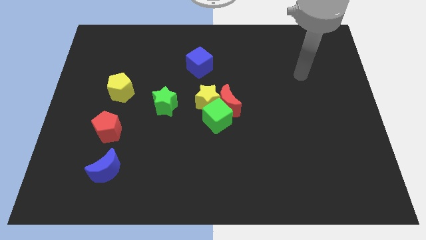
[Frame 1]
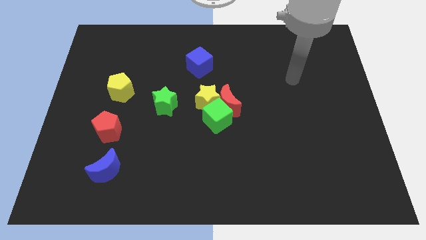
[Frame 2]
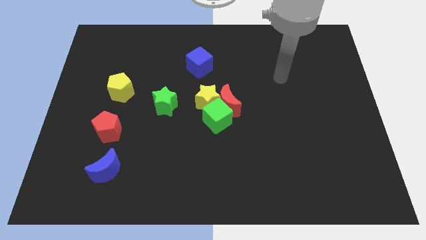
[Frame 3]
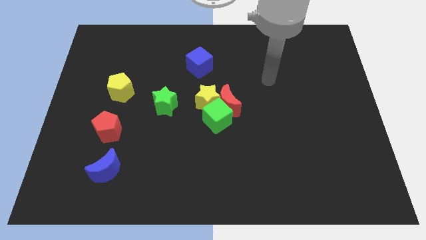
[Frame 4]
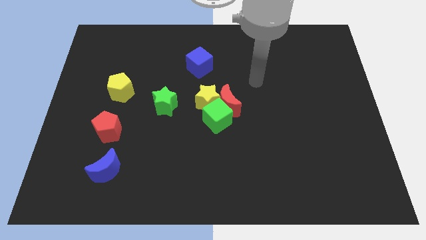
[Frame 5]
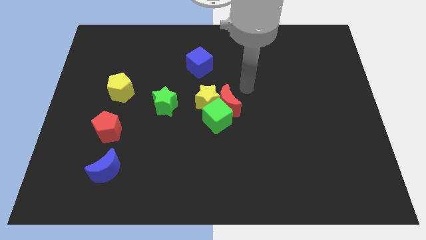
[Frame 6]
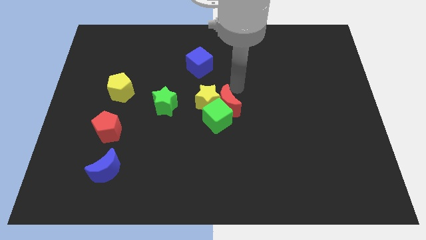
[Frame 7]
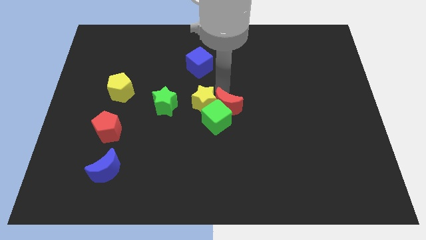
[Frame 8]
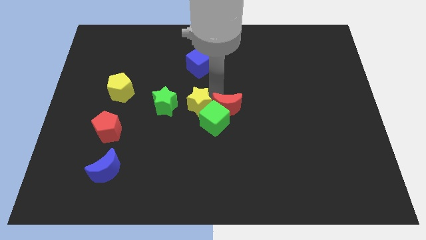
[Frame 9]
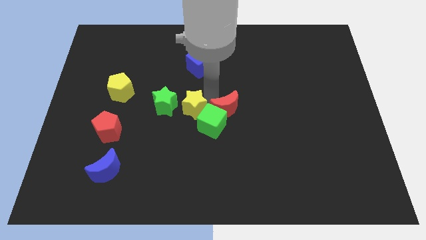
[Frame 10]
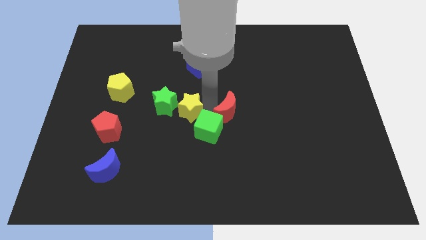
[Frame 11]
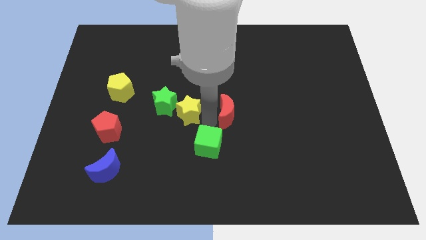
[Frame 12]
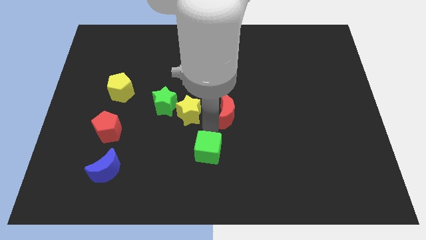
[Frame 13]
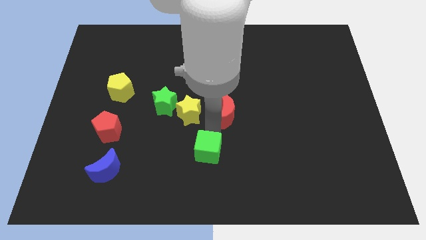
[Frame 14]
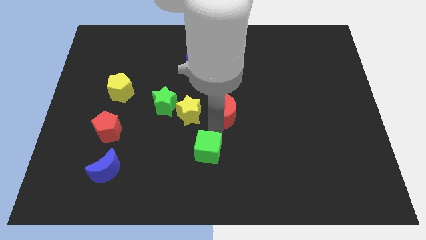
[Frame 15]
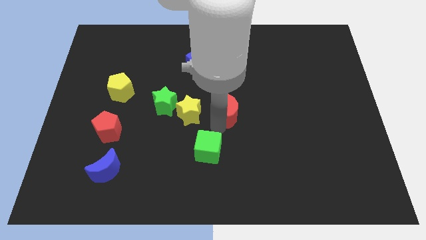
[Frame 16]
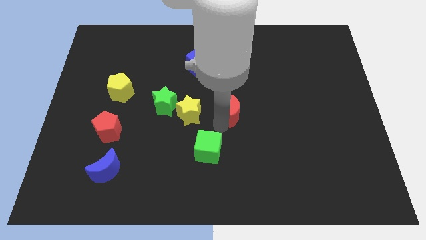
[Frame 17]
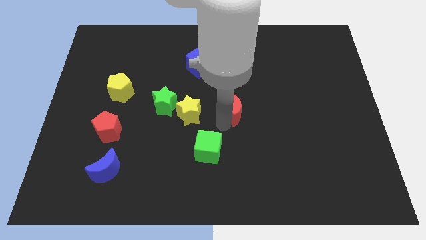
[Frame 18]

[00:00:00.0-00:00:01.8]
move the red moon away from the green cube and yellow star

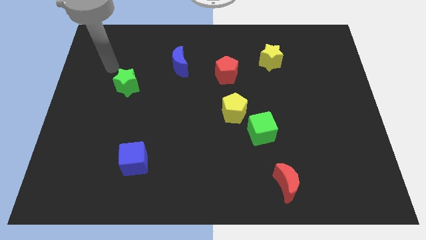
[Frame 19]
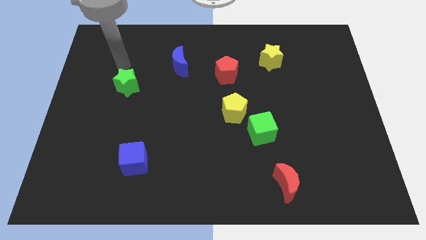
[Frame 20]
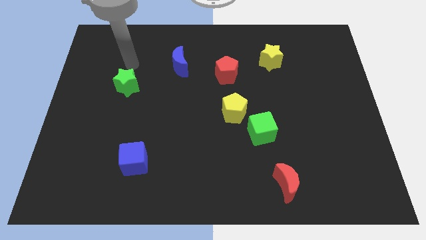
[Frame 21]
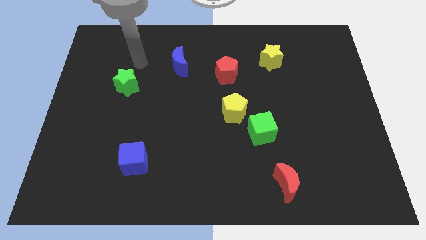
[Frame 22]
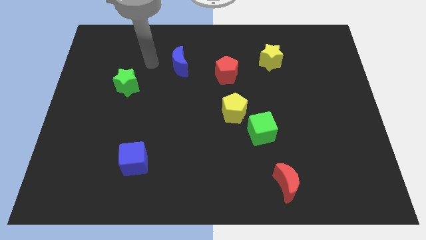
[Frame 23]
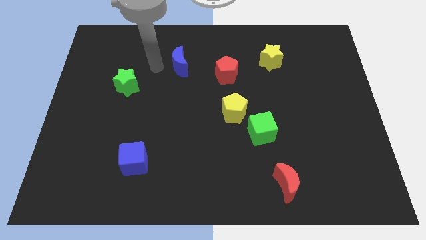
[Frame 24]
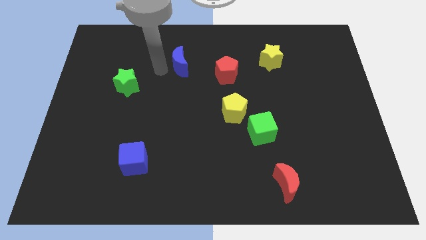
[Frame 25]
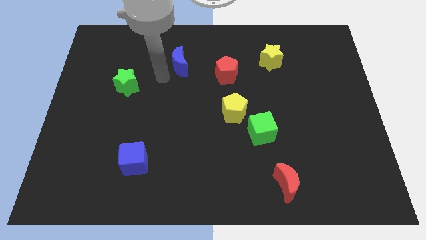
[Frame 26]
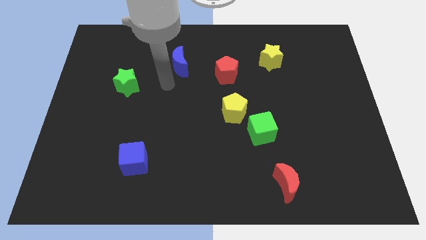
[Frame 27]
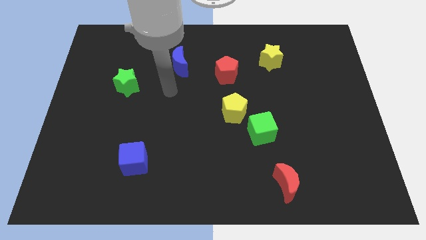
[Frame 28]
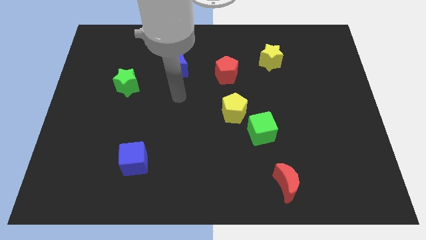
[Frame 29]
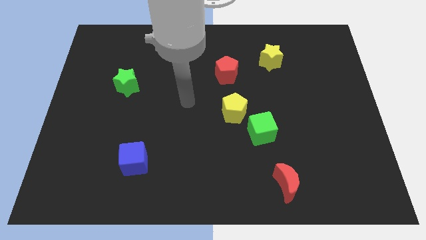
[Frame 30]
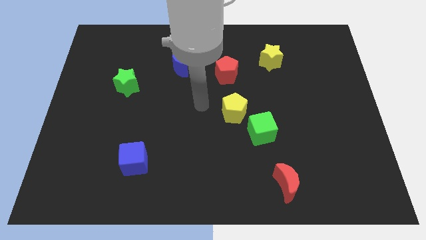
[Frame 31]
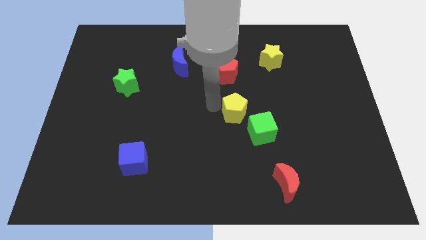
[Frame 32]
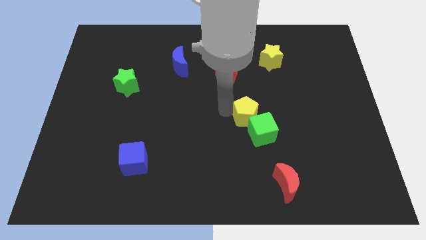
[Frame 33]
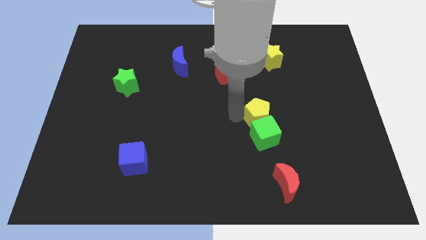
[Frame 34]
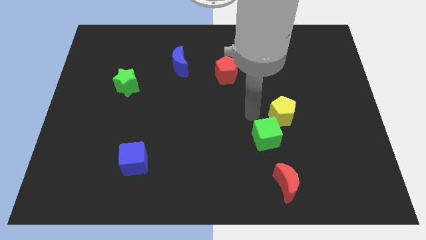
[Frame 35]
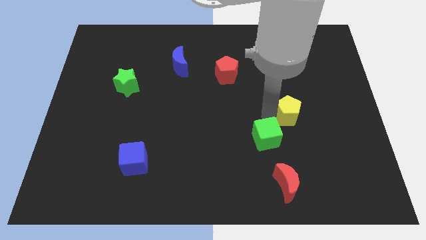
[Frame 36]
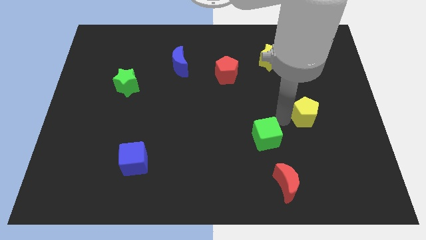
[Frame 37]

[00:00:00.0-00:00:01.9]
pull the green cube apart from the yellow pentagon

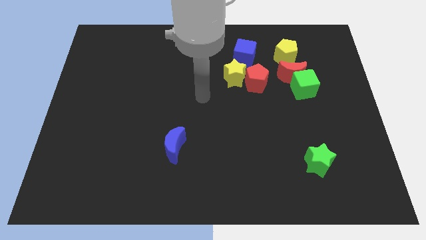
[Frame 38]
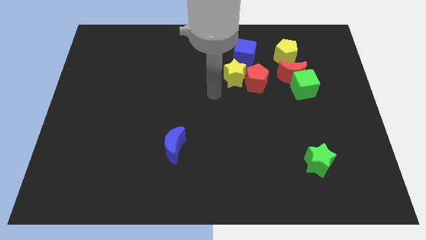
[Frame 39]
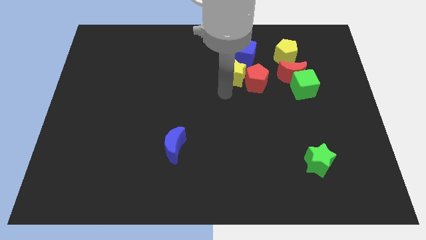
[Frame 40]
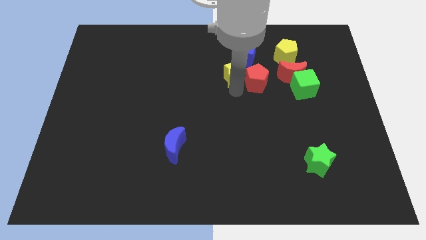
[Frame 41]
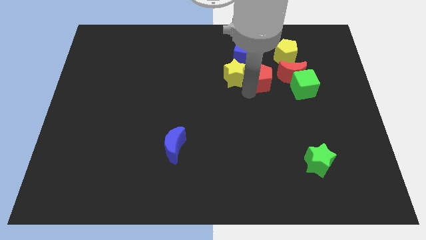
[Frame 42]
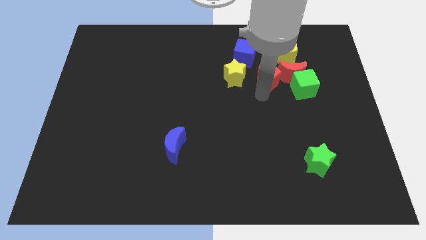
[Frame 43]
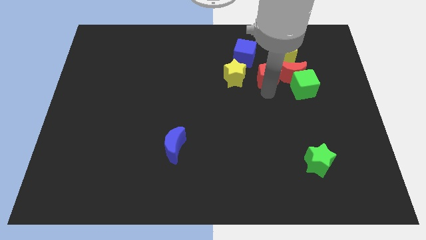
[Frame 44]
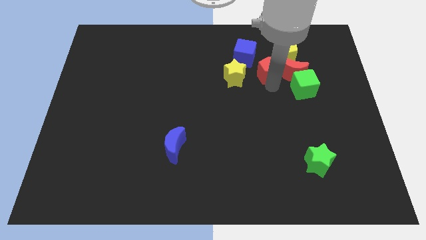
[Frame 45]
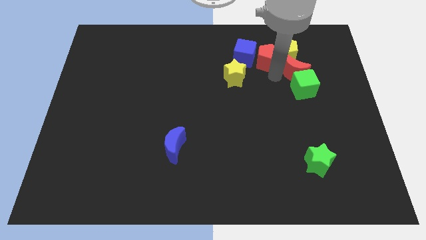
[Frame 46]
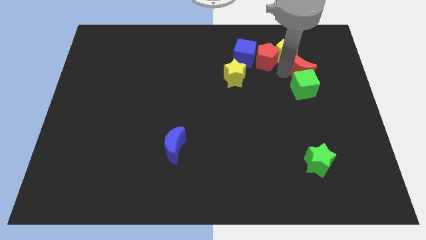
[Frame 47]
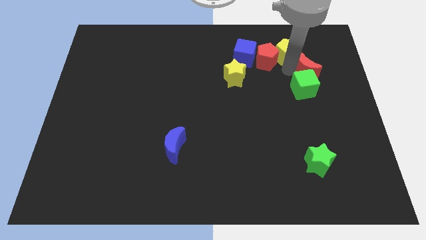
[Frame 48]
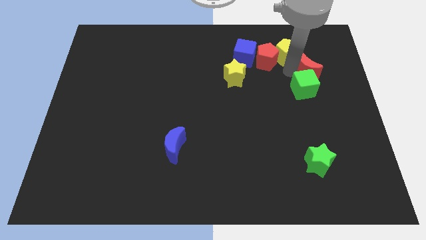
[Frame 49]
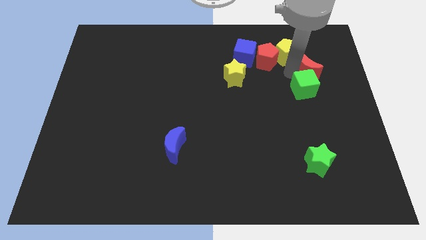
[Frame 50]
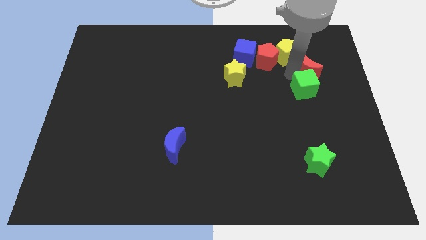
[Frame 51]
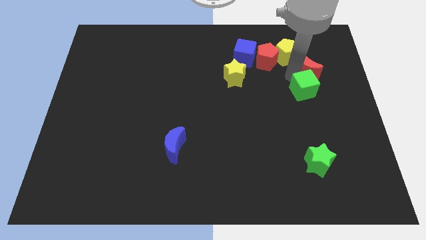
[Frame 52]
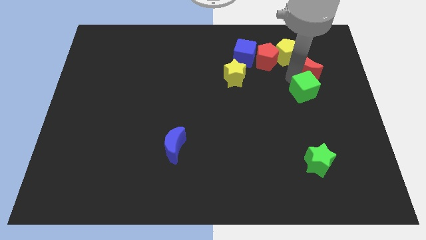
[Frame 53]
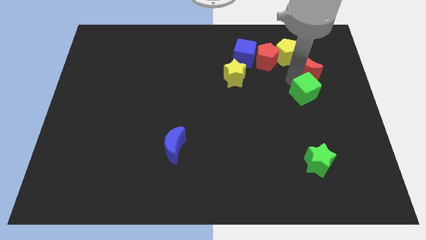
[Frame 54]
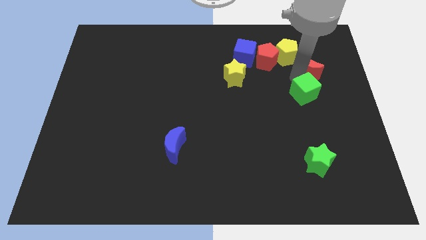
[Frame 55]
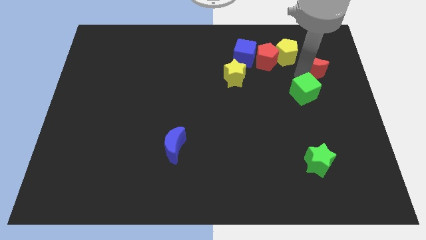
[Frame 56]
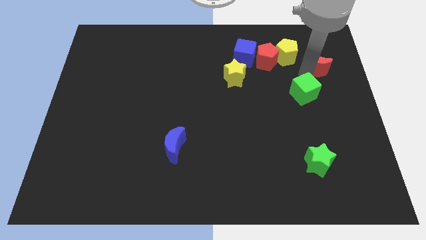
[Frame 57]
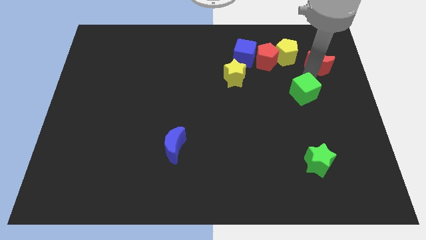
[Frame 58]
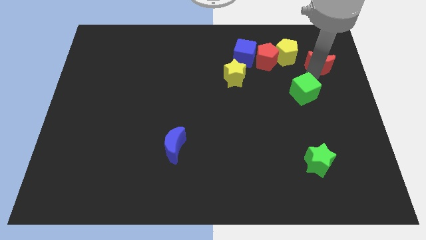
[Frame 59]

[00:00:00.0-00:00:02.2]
pull the green cube apart from the red moon

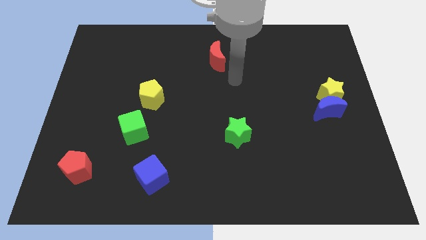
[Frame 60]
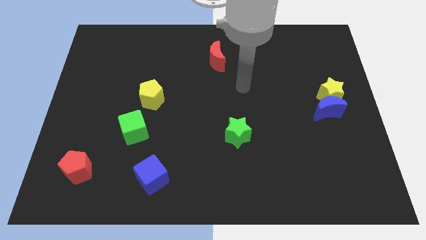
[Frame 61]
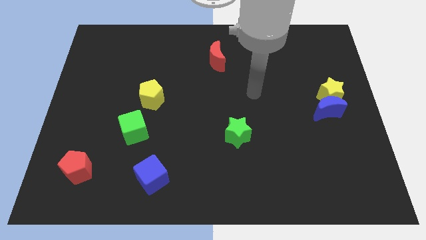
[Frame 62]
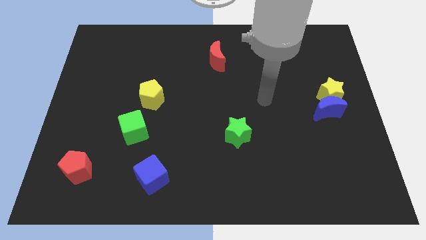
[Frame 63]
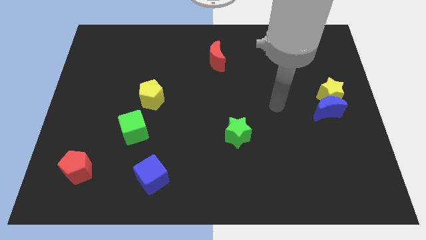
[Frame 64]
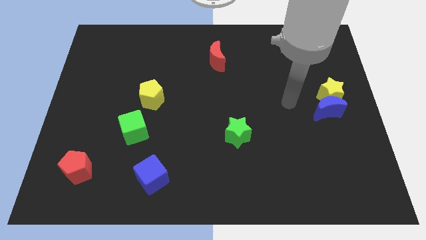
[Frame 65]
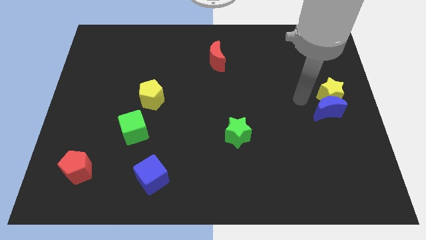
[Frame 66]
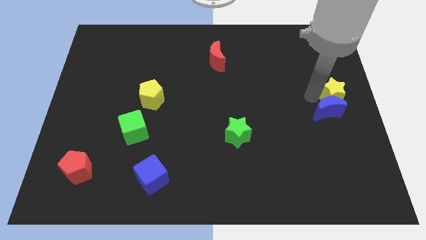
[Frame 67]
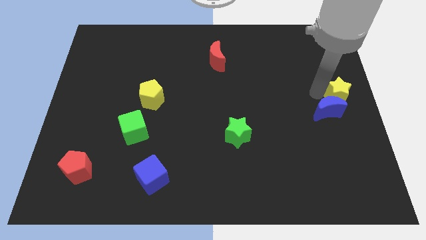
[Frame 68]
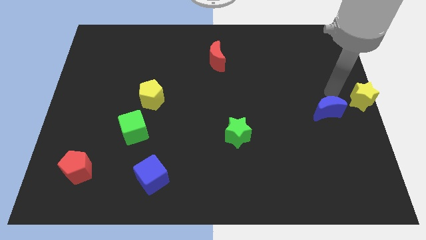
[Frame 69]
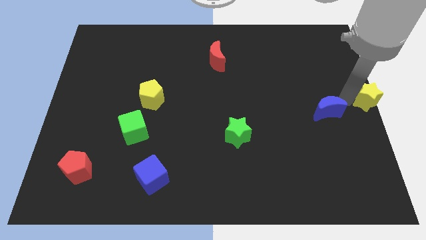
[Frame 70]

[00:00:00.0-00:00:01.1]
separate the blue moon from the yellow star

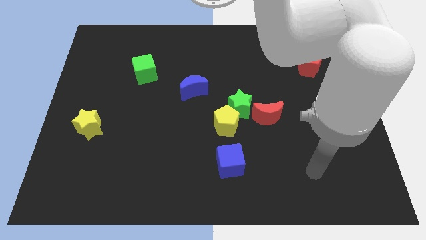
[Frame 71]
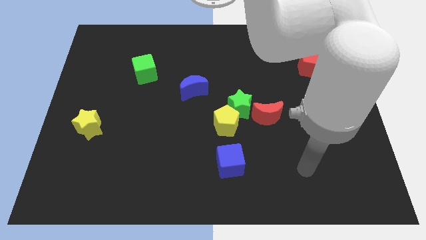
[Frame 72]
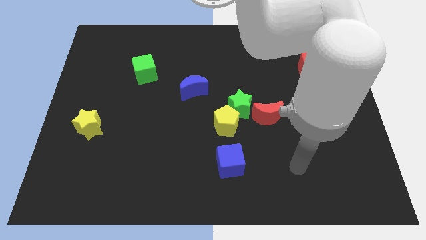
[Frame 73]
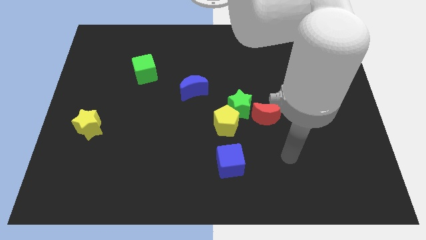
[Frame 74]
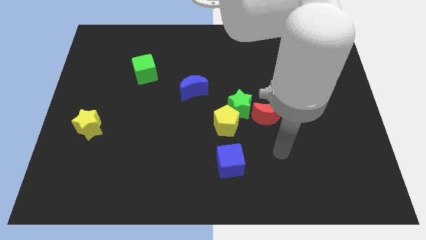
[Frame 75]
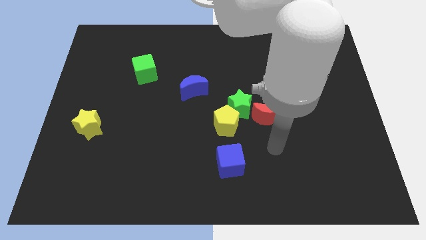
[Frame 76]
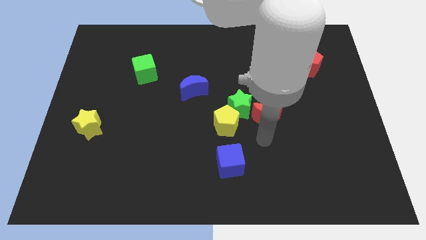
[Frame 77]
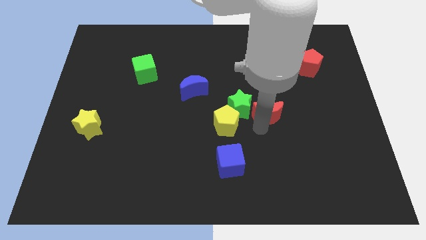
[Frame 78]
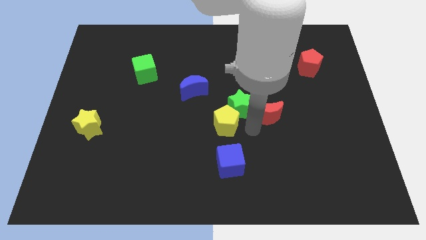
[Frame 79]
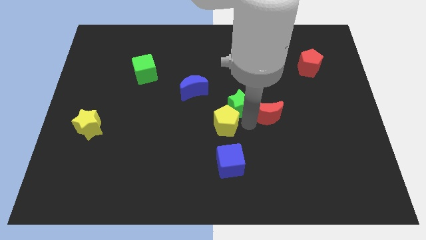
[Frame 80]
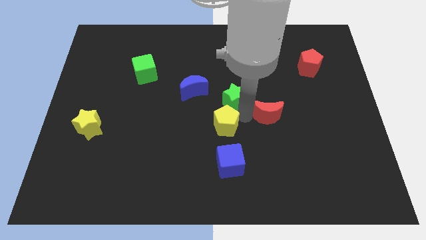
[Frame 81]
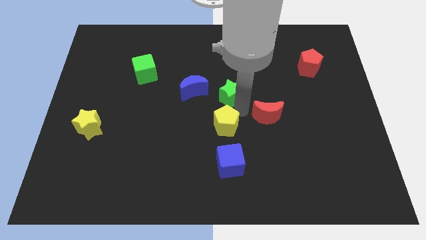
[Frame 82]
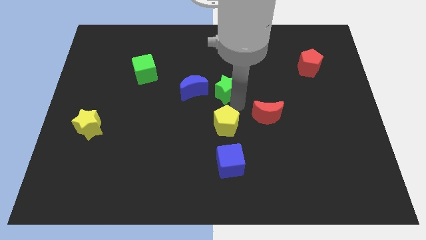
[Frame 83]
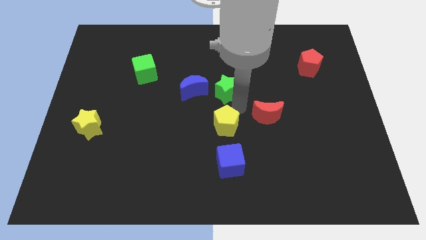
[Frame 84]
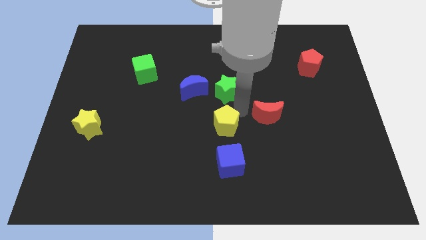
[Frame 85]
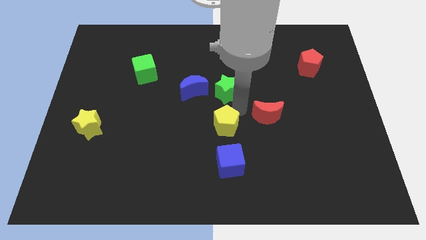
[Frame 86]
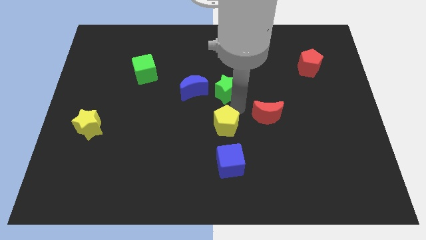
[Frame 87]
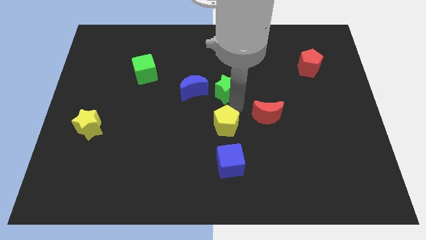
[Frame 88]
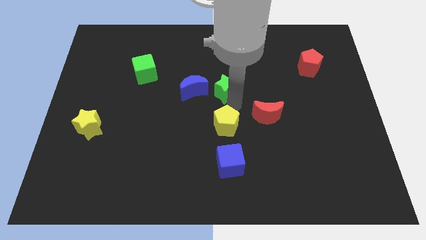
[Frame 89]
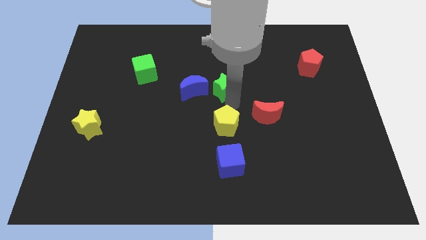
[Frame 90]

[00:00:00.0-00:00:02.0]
pull the green star apart from the yellow pentagon and red moon

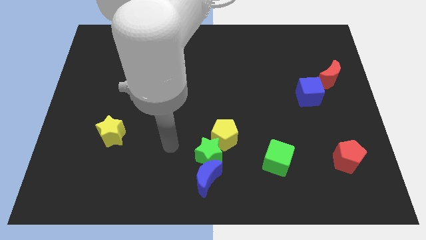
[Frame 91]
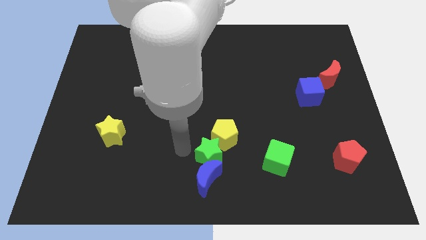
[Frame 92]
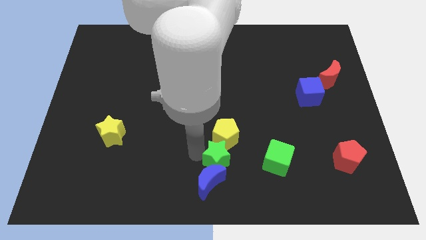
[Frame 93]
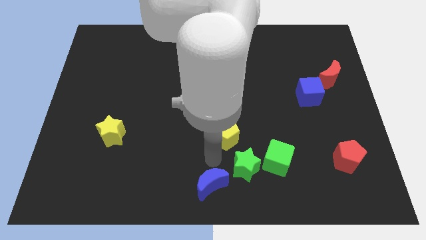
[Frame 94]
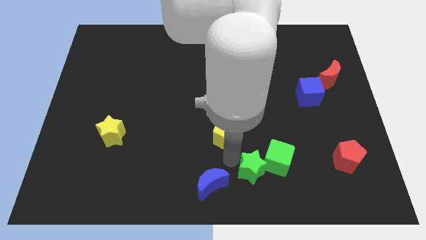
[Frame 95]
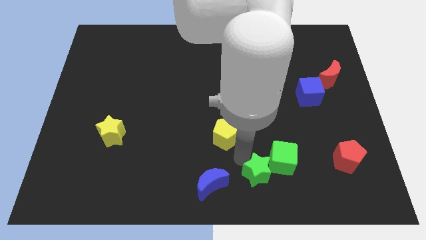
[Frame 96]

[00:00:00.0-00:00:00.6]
move the yellow pentagon away from the green star
